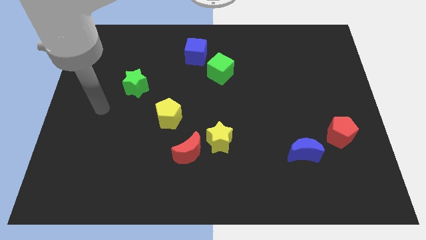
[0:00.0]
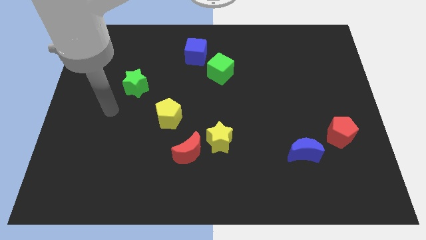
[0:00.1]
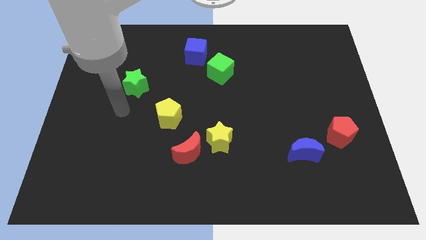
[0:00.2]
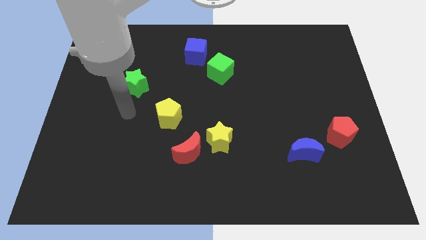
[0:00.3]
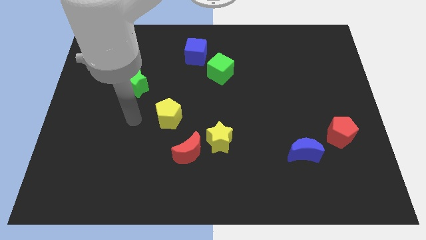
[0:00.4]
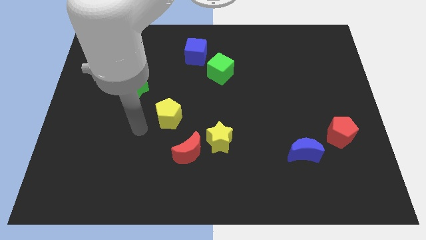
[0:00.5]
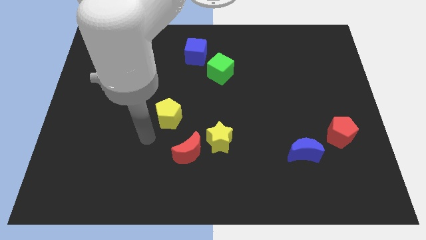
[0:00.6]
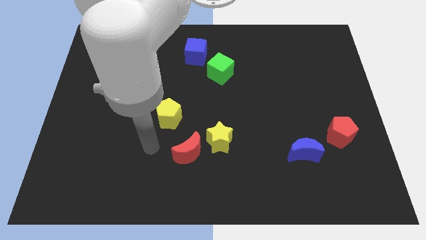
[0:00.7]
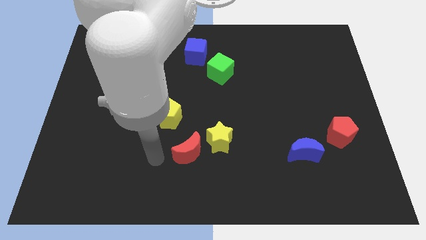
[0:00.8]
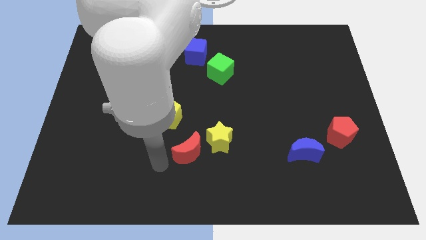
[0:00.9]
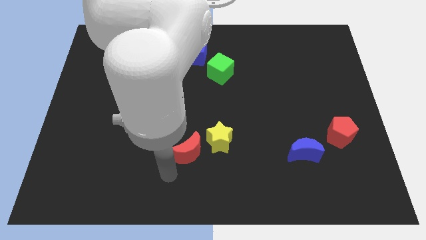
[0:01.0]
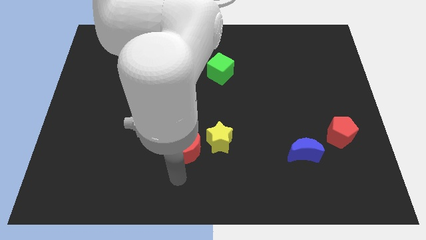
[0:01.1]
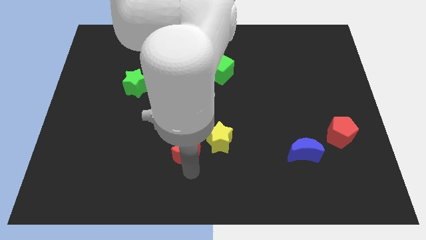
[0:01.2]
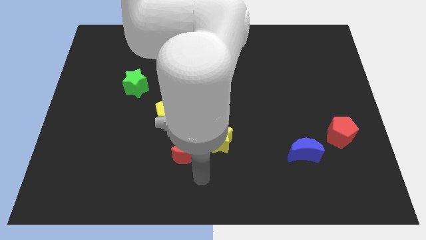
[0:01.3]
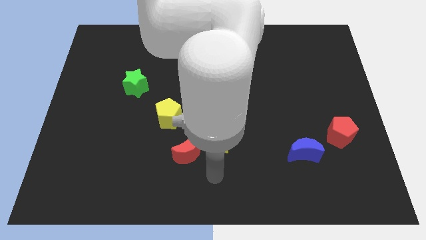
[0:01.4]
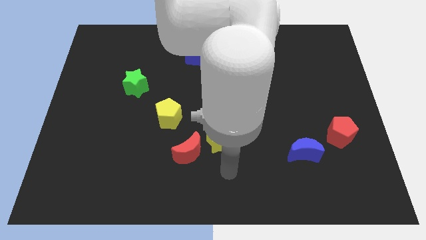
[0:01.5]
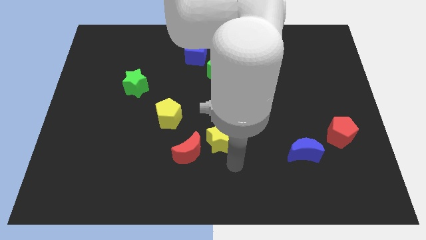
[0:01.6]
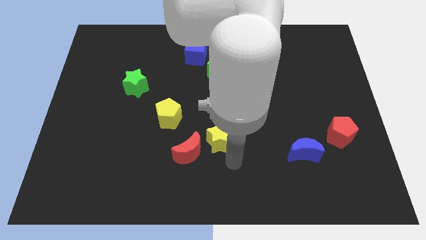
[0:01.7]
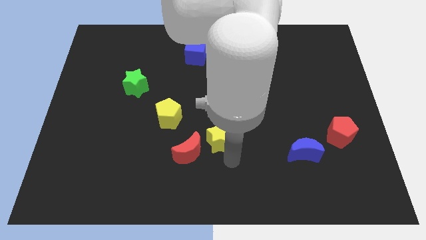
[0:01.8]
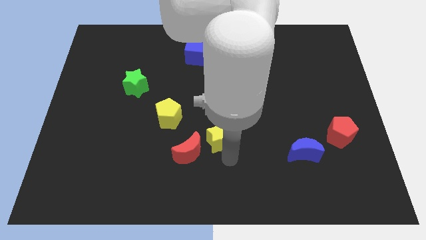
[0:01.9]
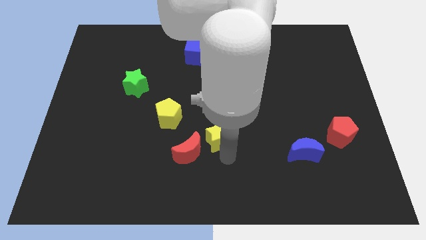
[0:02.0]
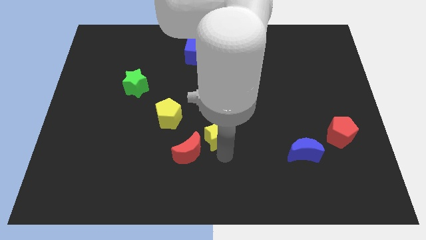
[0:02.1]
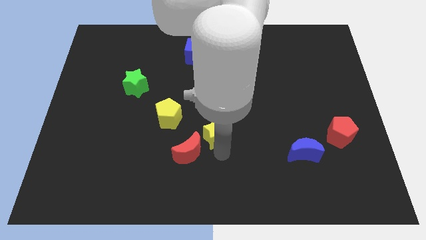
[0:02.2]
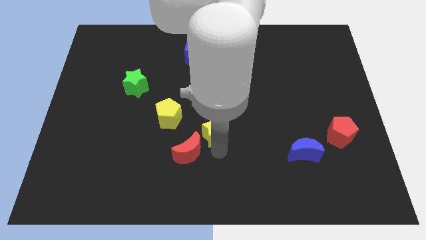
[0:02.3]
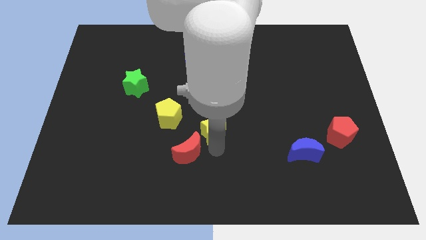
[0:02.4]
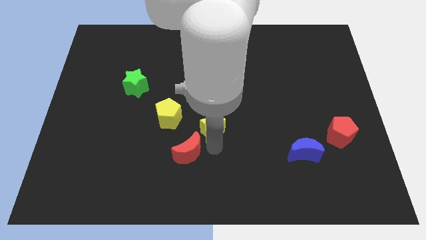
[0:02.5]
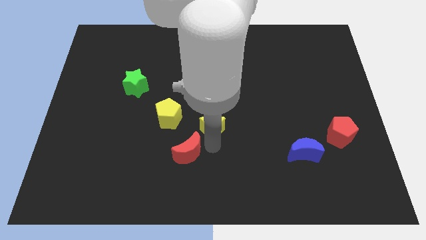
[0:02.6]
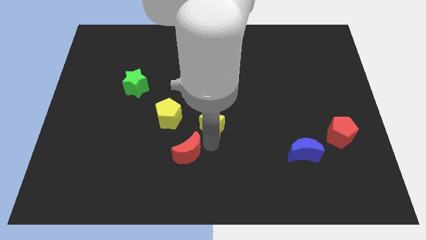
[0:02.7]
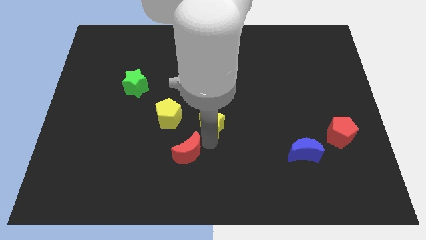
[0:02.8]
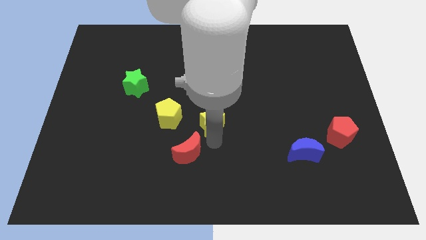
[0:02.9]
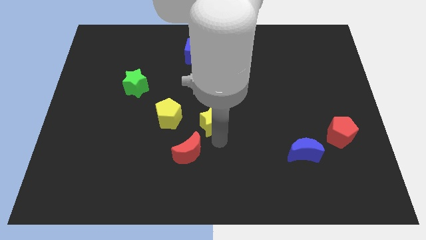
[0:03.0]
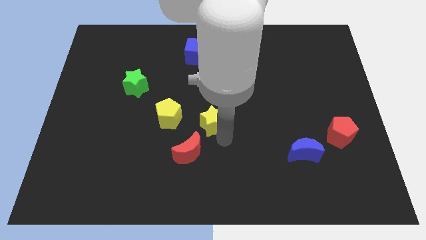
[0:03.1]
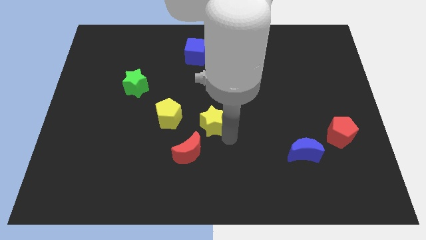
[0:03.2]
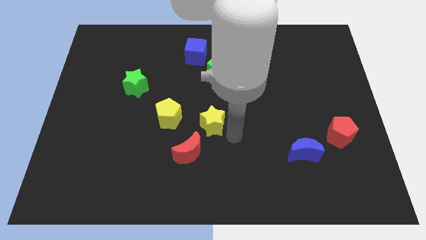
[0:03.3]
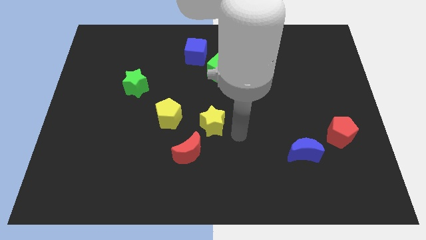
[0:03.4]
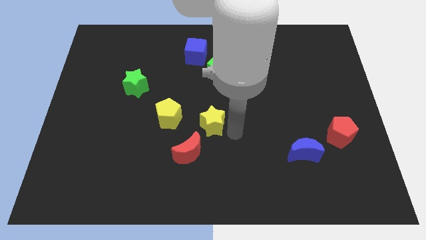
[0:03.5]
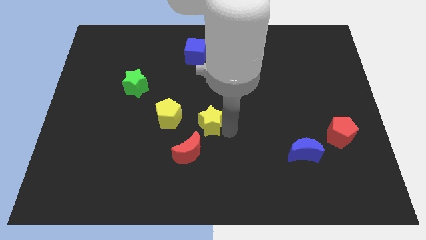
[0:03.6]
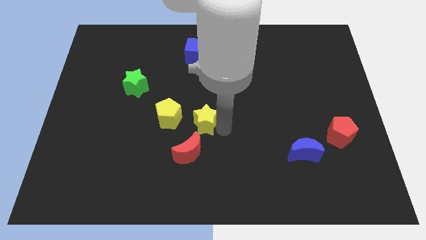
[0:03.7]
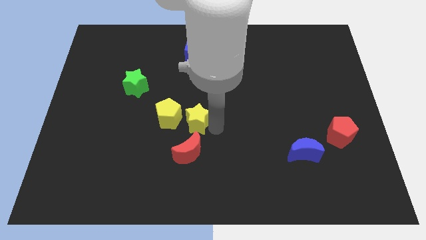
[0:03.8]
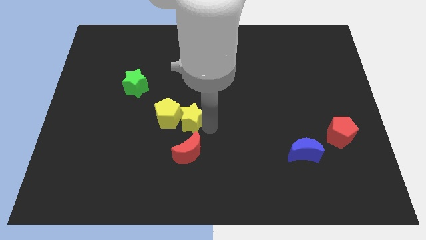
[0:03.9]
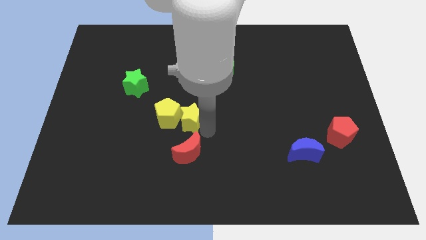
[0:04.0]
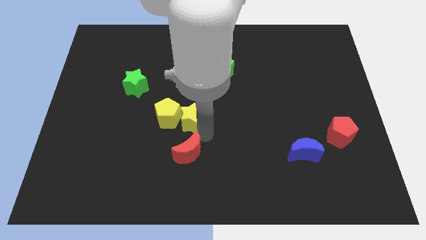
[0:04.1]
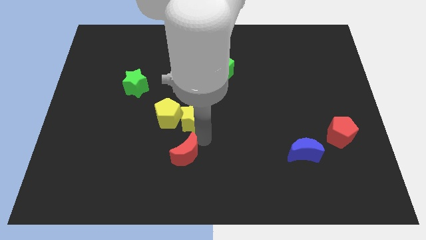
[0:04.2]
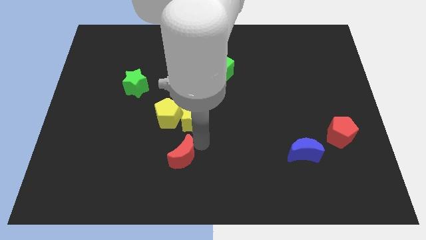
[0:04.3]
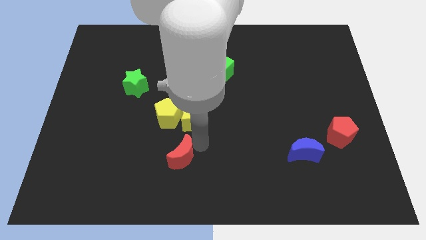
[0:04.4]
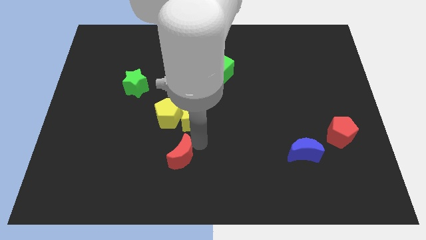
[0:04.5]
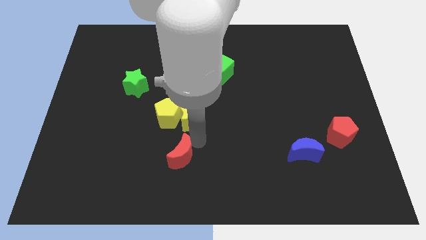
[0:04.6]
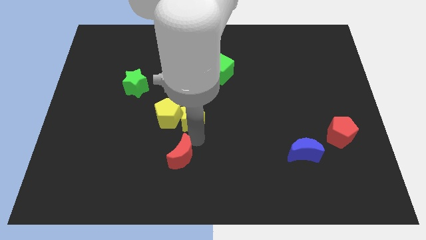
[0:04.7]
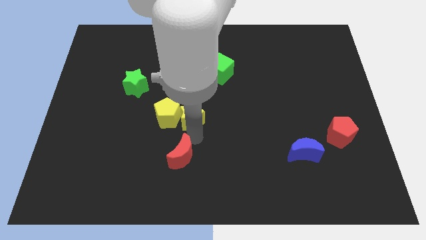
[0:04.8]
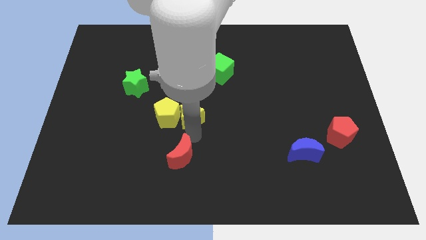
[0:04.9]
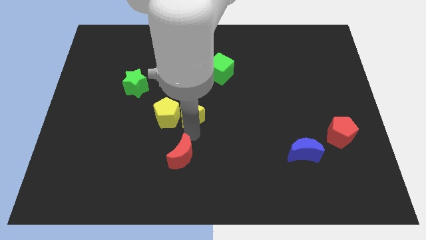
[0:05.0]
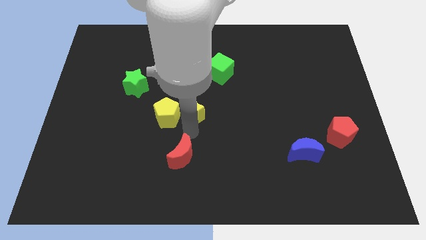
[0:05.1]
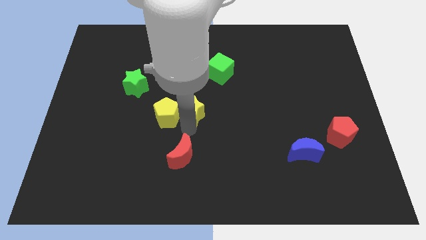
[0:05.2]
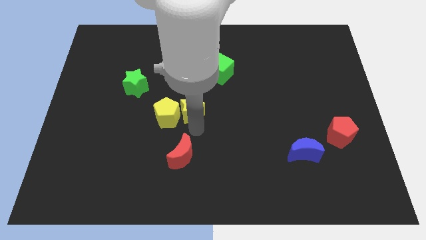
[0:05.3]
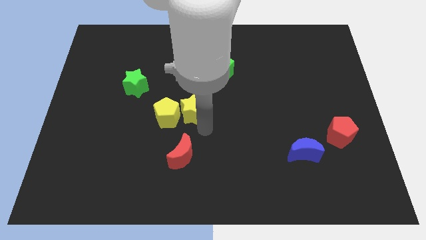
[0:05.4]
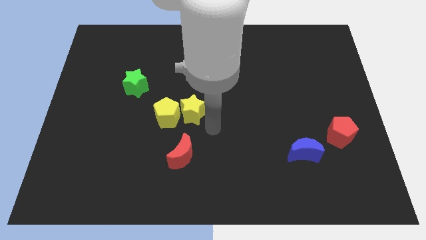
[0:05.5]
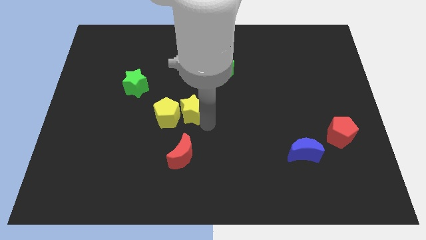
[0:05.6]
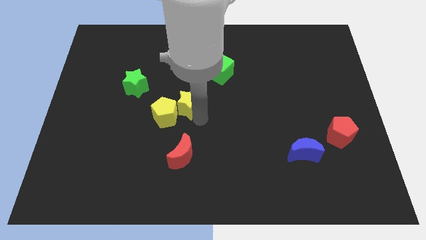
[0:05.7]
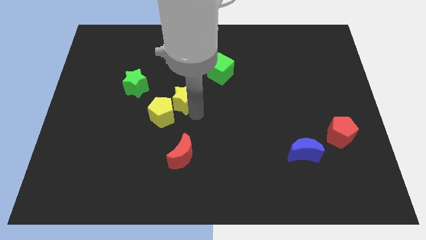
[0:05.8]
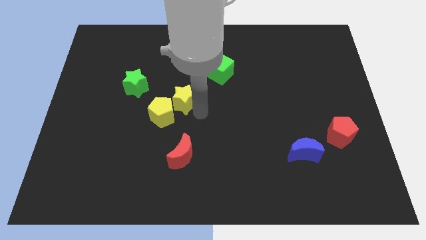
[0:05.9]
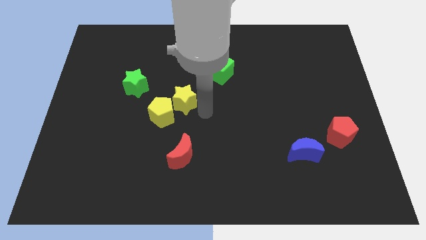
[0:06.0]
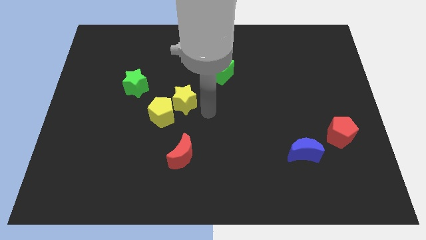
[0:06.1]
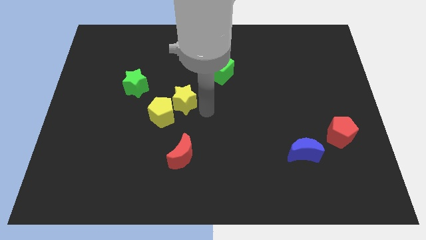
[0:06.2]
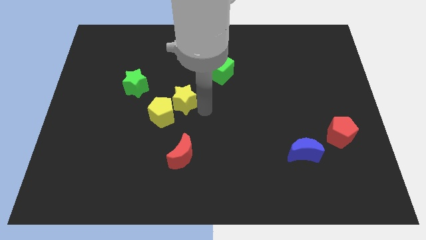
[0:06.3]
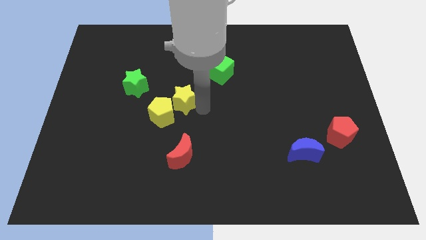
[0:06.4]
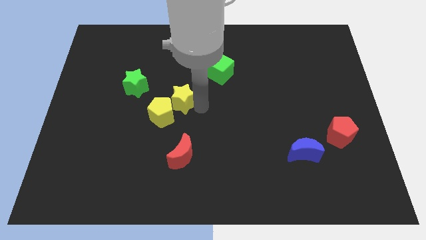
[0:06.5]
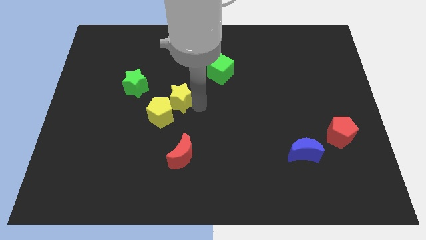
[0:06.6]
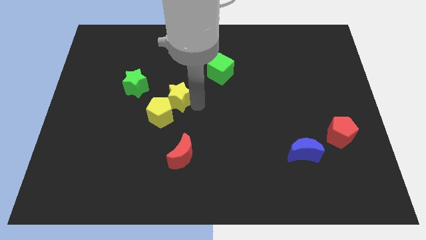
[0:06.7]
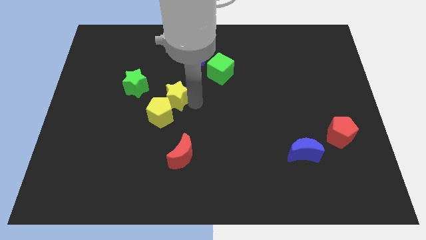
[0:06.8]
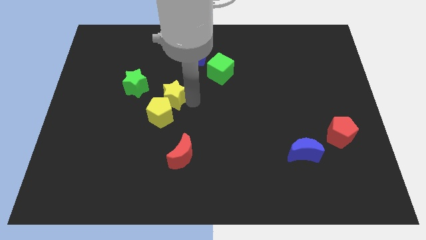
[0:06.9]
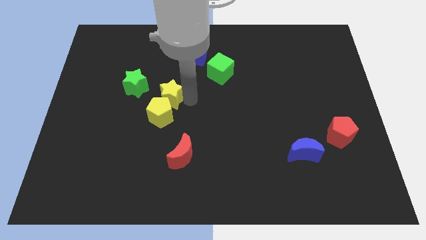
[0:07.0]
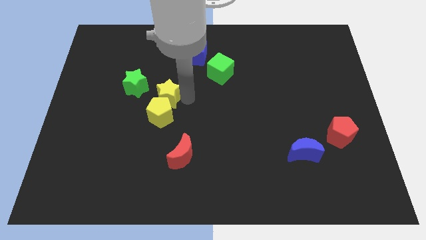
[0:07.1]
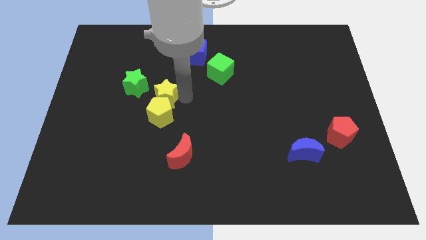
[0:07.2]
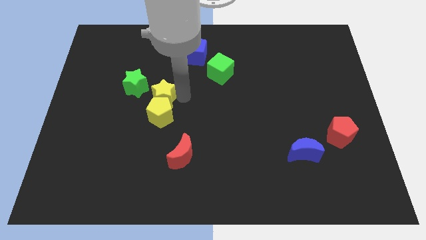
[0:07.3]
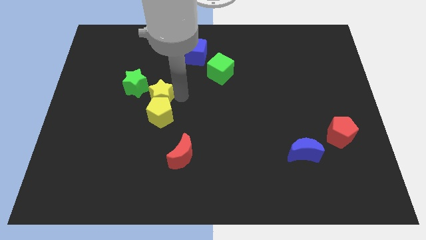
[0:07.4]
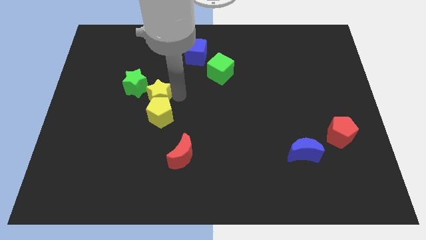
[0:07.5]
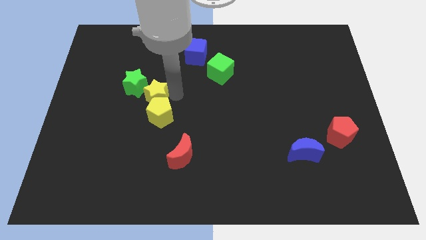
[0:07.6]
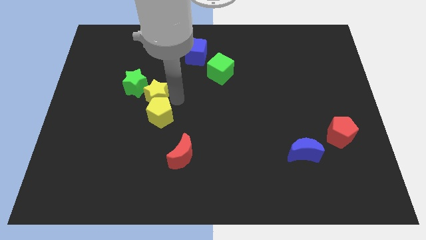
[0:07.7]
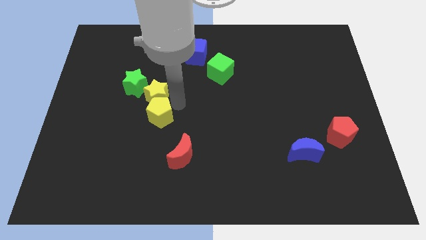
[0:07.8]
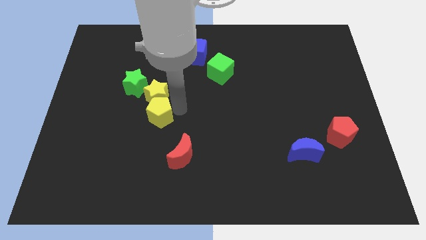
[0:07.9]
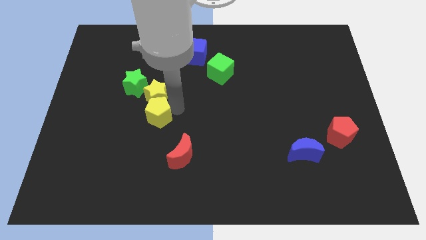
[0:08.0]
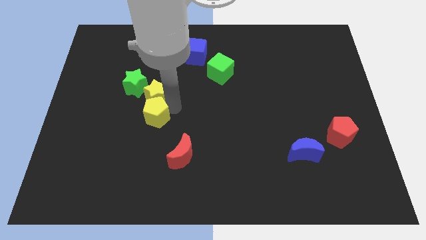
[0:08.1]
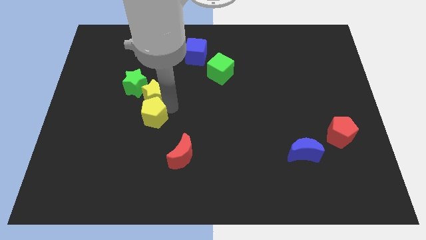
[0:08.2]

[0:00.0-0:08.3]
put the yellow star to the green star
